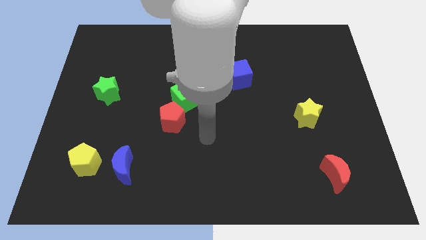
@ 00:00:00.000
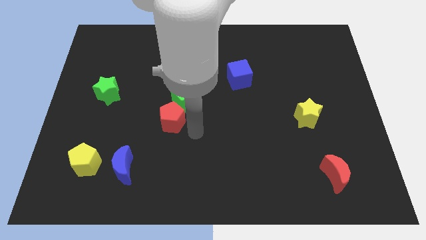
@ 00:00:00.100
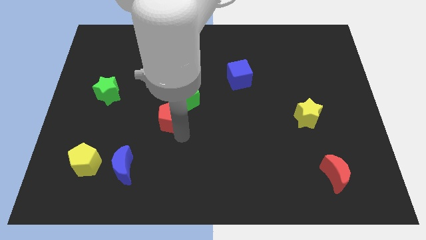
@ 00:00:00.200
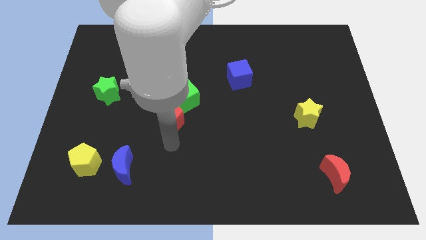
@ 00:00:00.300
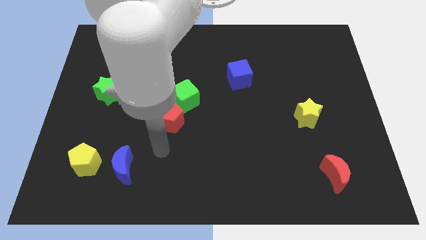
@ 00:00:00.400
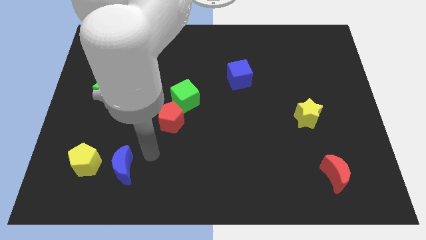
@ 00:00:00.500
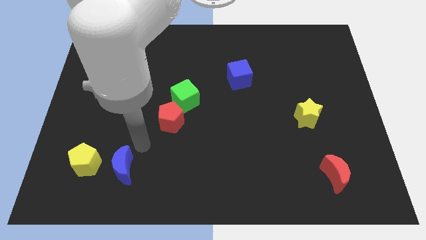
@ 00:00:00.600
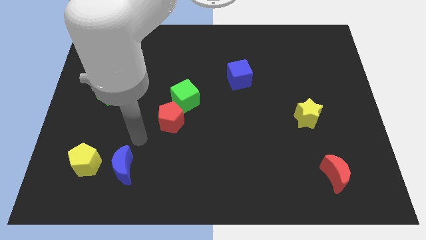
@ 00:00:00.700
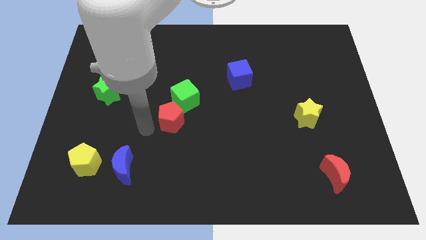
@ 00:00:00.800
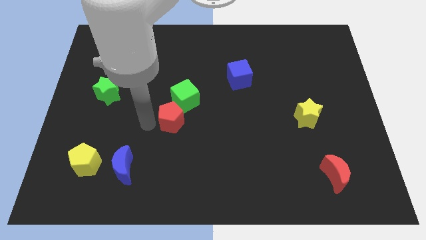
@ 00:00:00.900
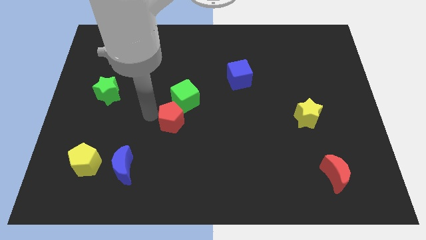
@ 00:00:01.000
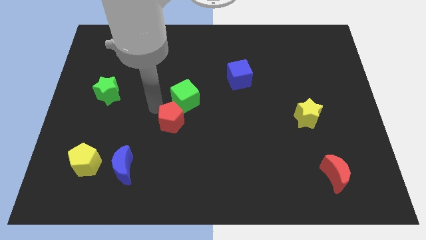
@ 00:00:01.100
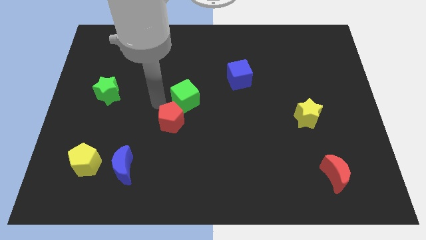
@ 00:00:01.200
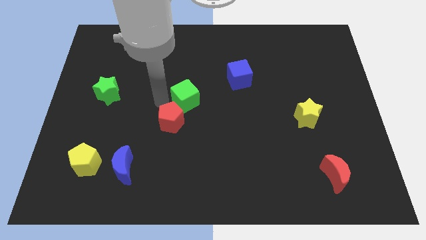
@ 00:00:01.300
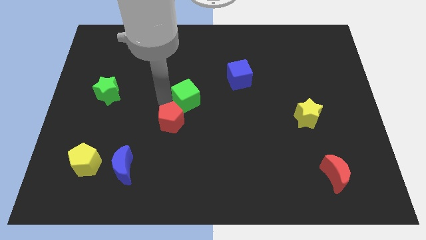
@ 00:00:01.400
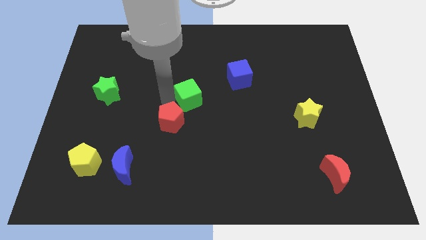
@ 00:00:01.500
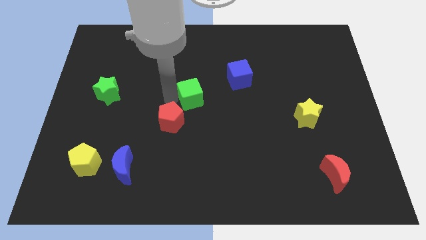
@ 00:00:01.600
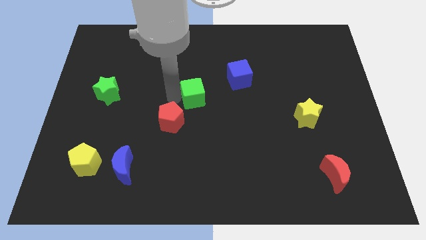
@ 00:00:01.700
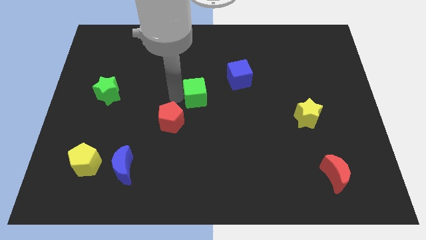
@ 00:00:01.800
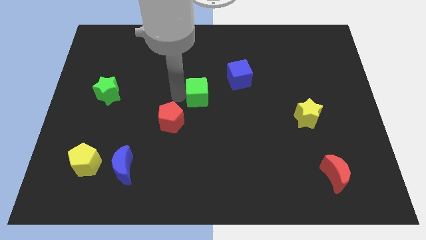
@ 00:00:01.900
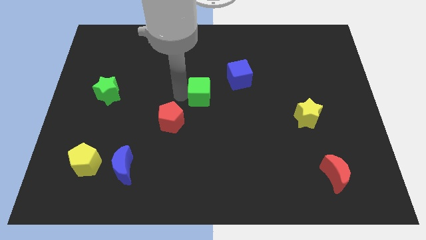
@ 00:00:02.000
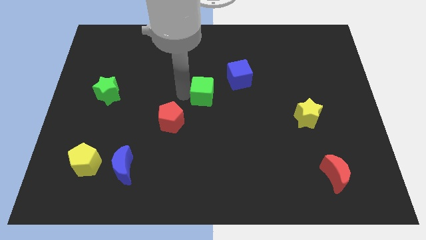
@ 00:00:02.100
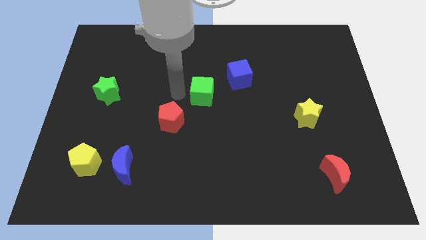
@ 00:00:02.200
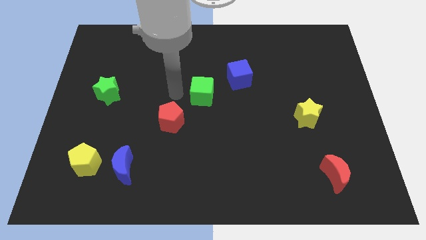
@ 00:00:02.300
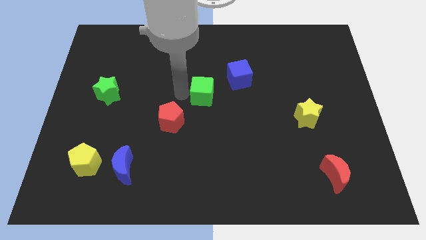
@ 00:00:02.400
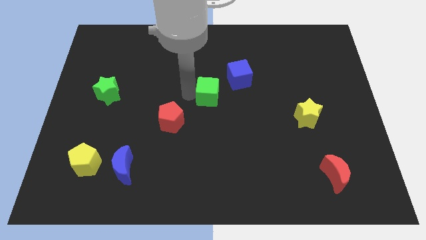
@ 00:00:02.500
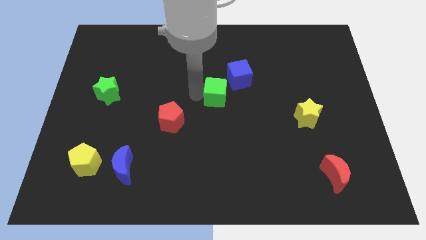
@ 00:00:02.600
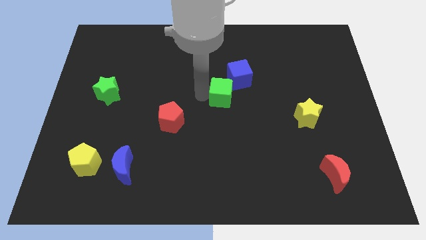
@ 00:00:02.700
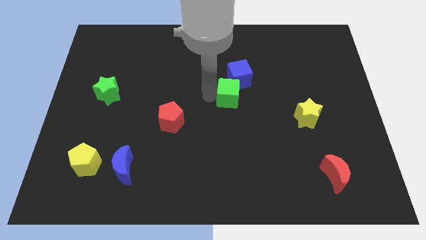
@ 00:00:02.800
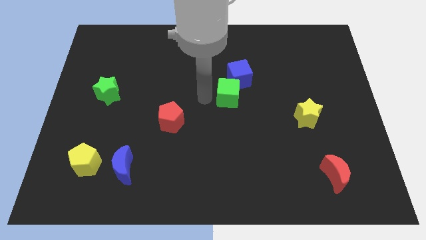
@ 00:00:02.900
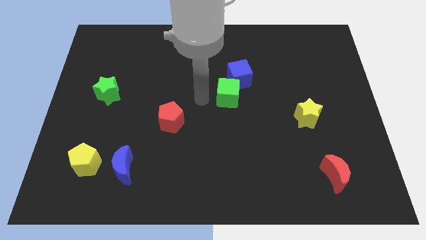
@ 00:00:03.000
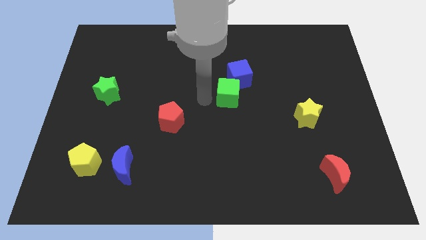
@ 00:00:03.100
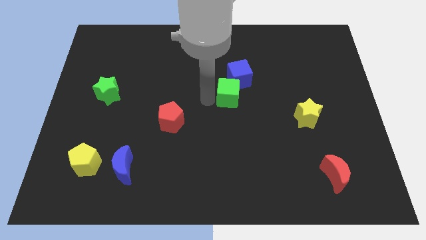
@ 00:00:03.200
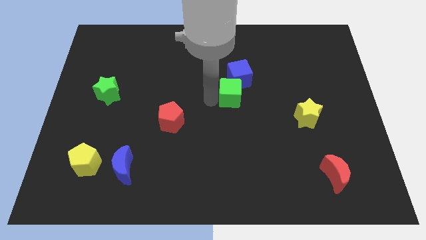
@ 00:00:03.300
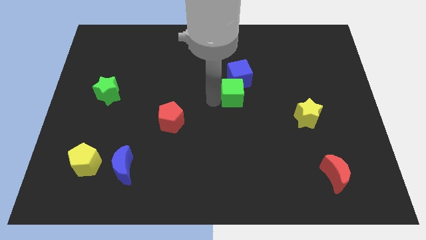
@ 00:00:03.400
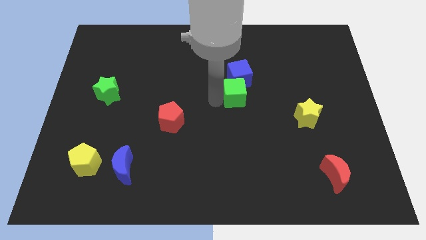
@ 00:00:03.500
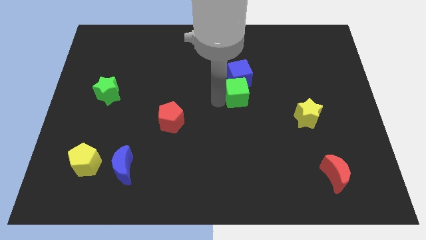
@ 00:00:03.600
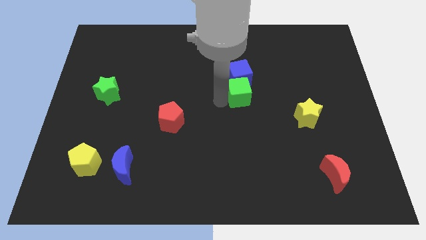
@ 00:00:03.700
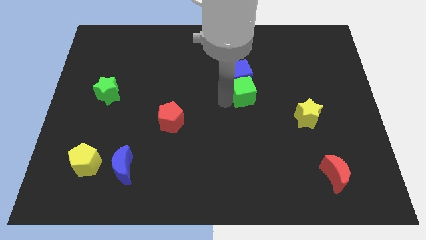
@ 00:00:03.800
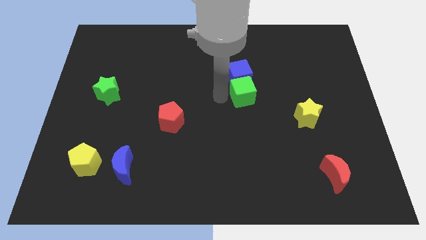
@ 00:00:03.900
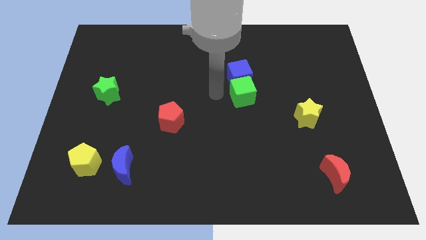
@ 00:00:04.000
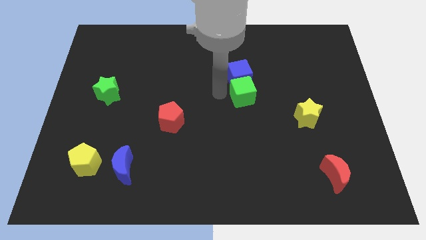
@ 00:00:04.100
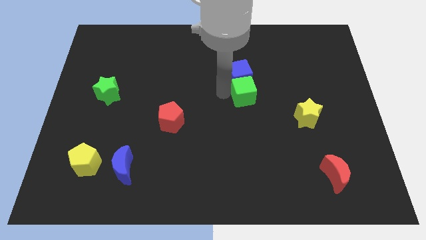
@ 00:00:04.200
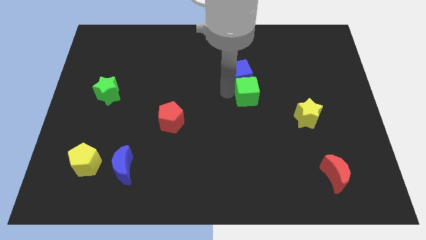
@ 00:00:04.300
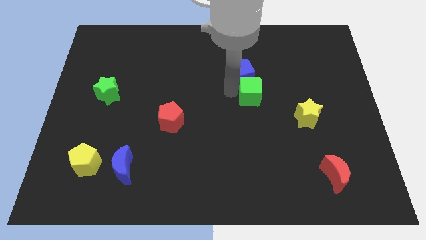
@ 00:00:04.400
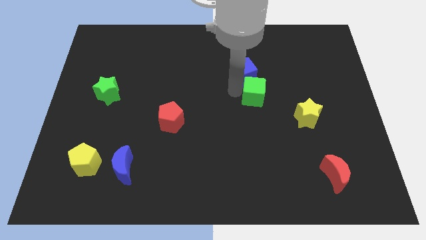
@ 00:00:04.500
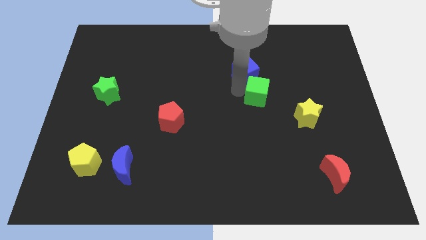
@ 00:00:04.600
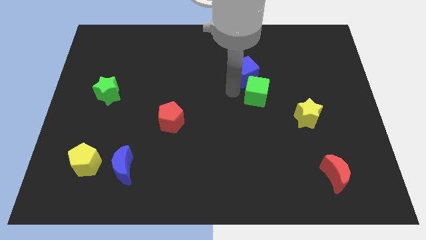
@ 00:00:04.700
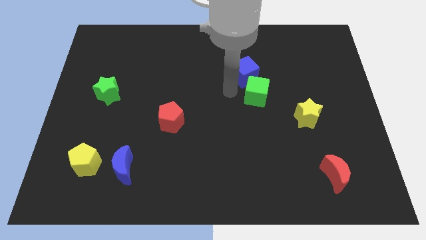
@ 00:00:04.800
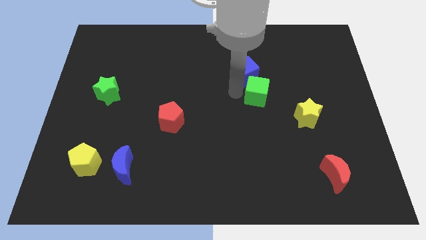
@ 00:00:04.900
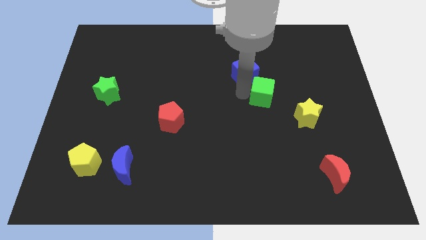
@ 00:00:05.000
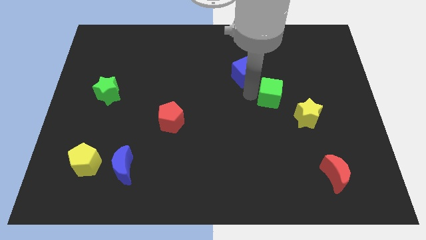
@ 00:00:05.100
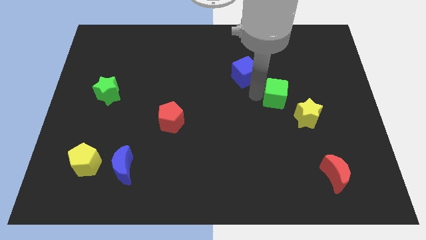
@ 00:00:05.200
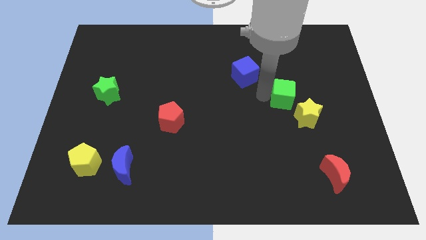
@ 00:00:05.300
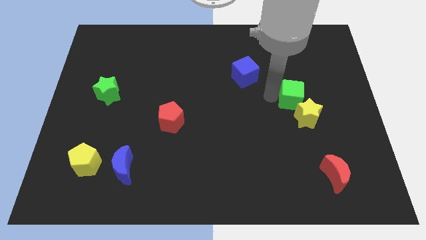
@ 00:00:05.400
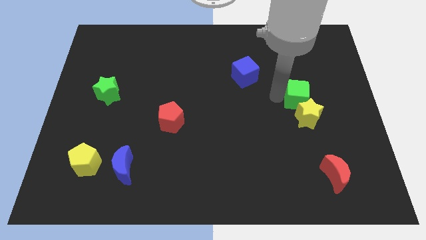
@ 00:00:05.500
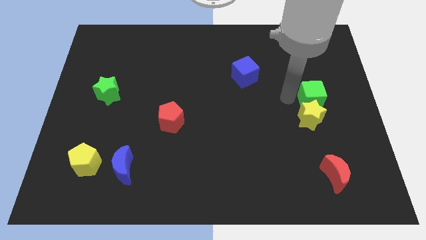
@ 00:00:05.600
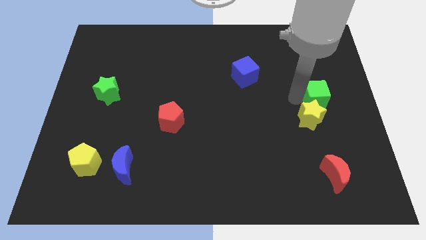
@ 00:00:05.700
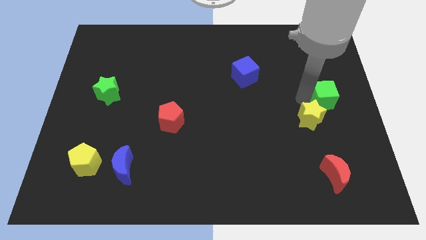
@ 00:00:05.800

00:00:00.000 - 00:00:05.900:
move the green cube to the right side
